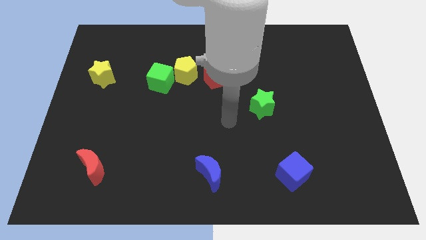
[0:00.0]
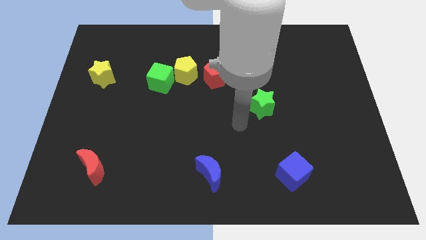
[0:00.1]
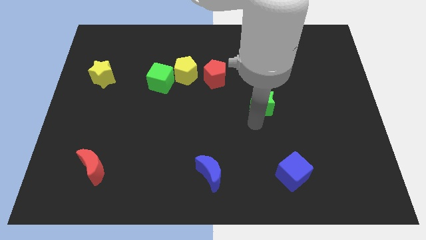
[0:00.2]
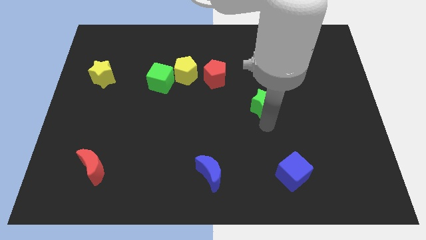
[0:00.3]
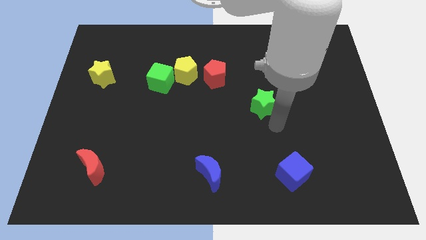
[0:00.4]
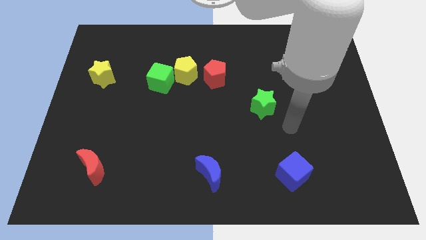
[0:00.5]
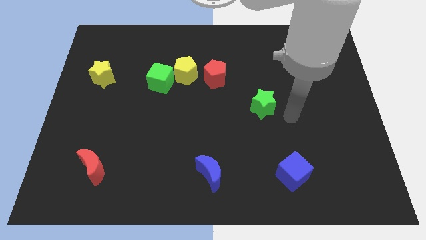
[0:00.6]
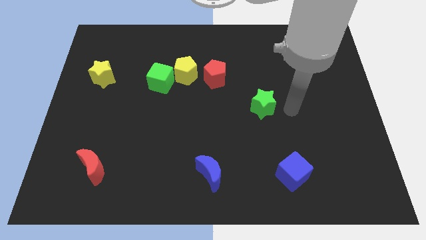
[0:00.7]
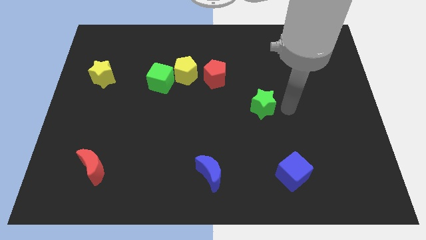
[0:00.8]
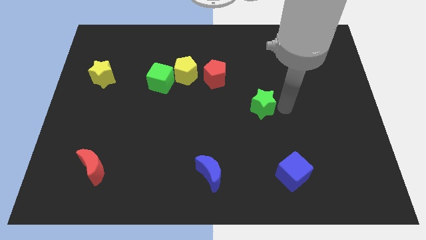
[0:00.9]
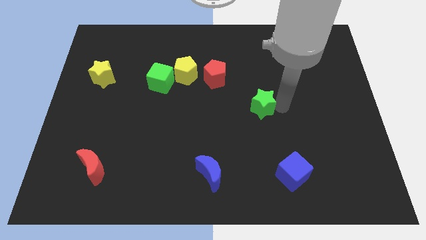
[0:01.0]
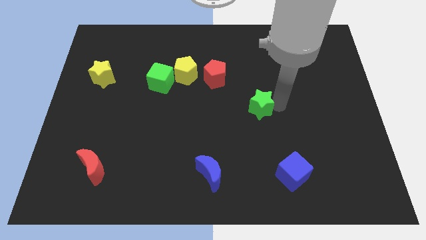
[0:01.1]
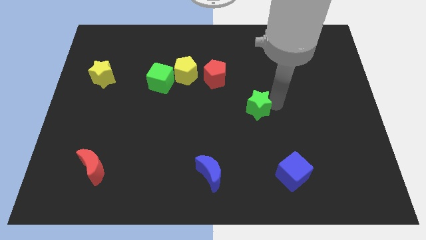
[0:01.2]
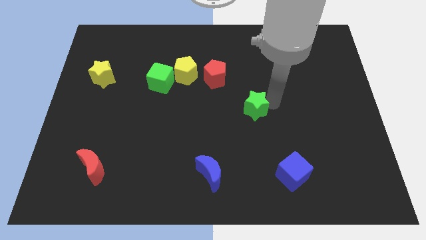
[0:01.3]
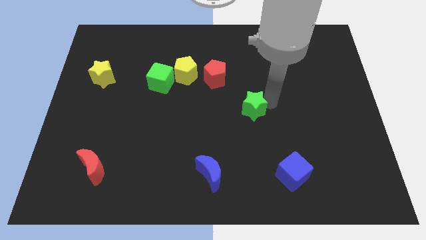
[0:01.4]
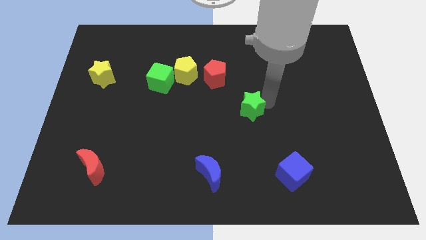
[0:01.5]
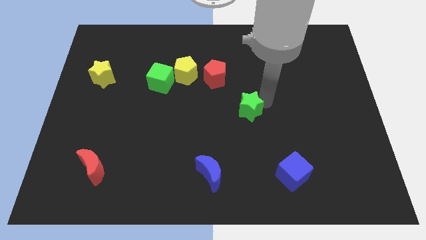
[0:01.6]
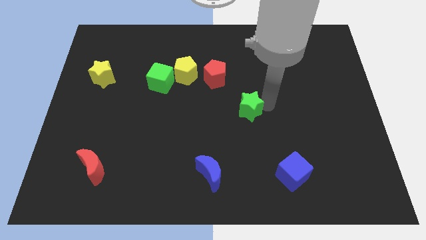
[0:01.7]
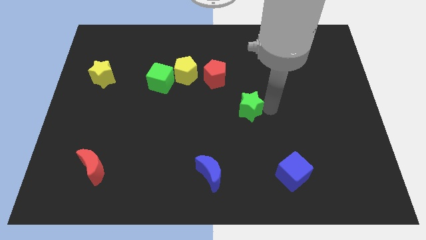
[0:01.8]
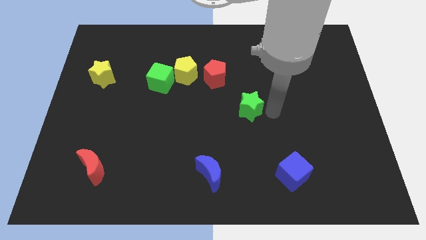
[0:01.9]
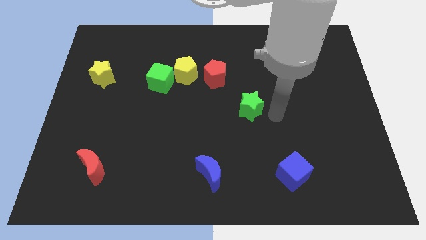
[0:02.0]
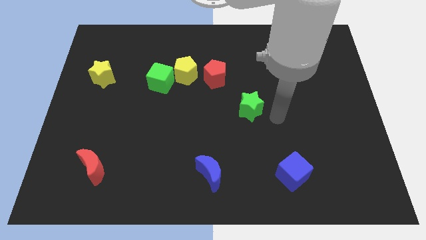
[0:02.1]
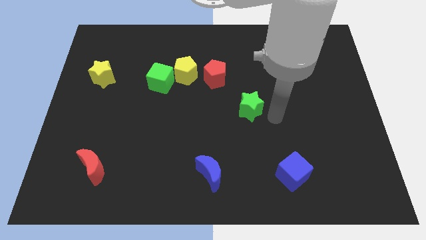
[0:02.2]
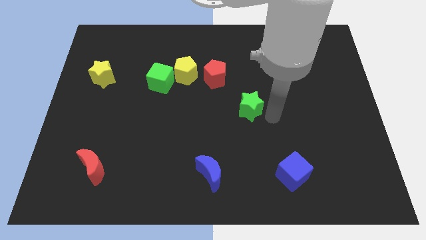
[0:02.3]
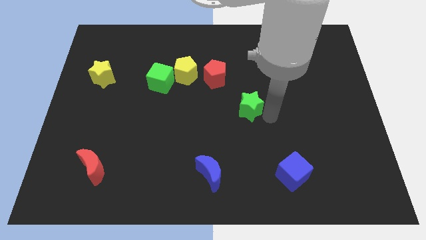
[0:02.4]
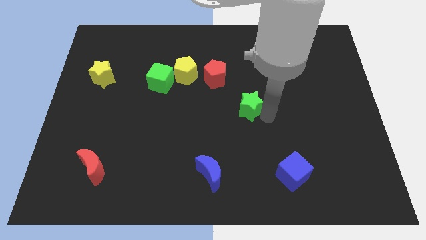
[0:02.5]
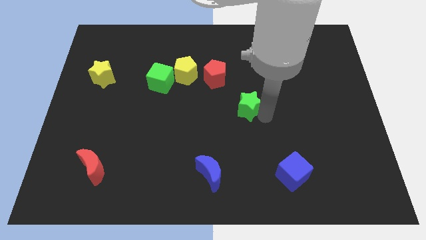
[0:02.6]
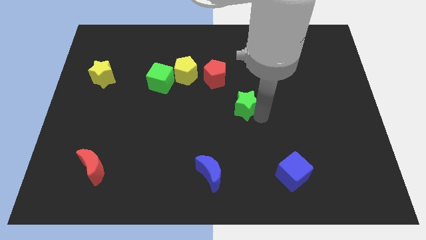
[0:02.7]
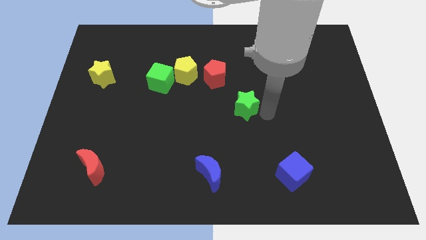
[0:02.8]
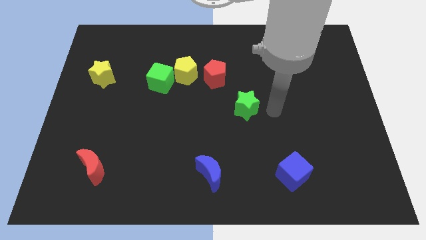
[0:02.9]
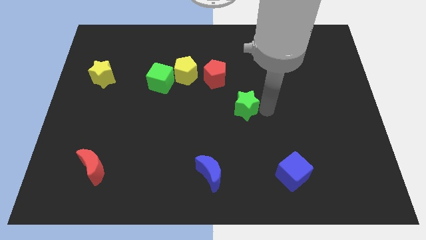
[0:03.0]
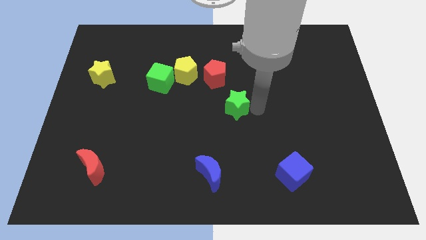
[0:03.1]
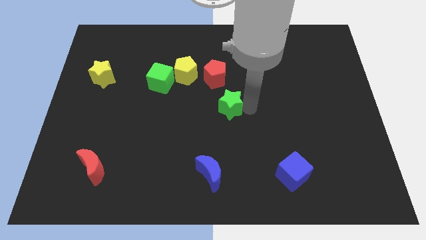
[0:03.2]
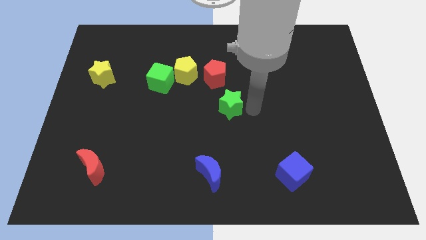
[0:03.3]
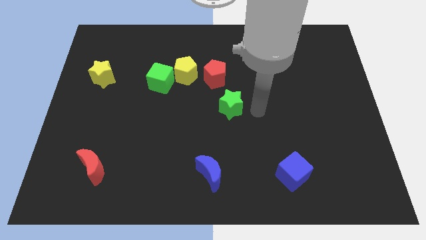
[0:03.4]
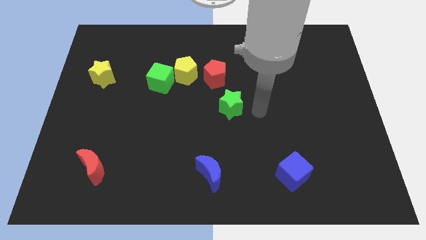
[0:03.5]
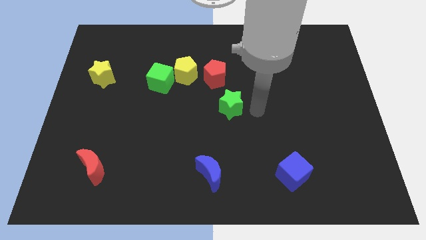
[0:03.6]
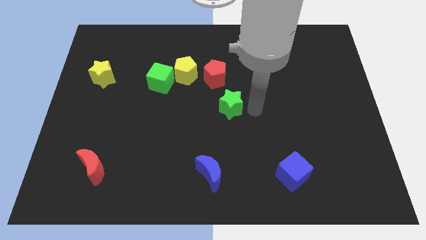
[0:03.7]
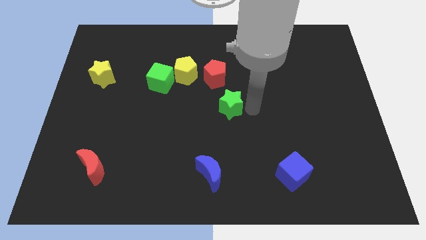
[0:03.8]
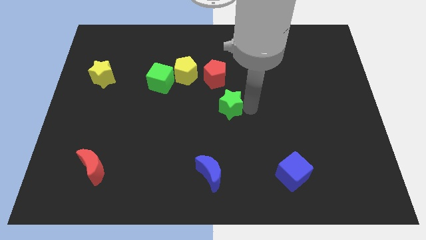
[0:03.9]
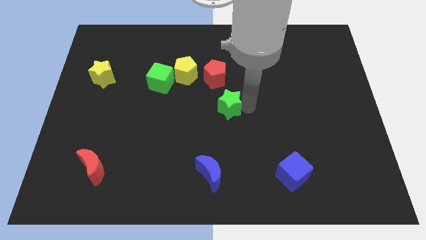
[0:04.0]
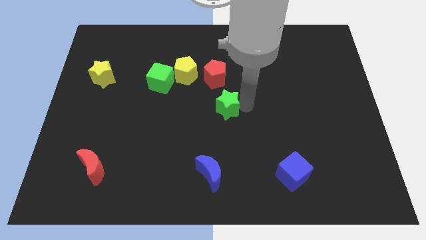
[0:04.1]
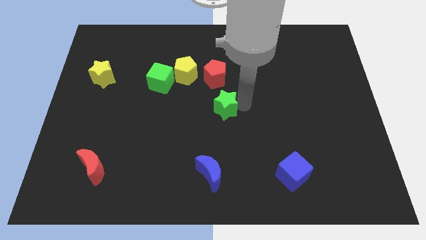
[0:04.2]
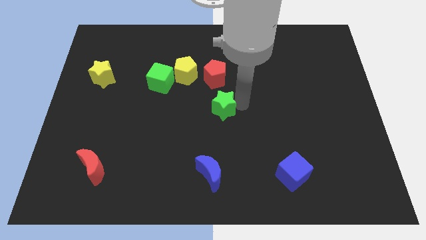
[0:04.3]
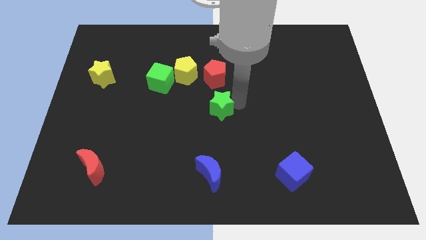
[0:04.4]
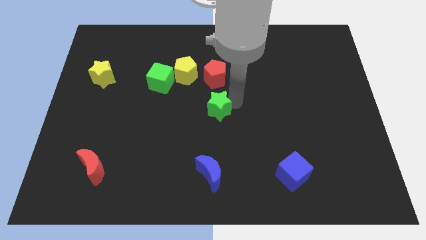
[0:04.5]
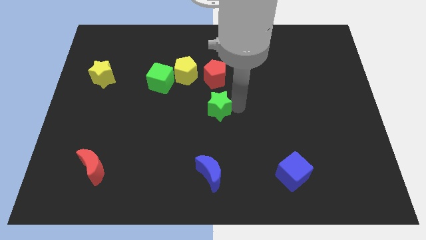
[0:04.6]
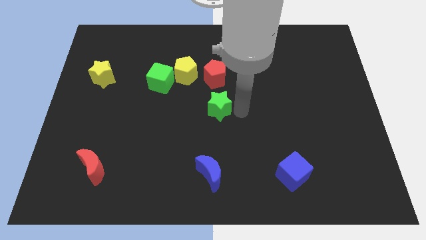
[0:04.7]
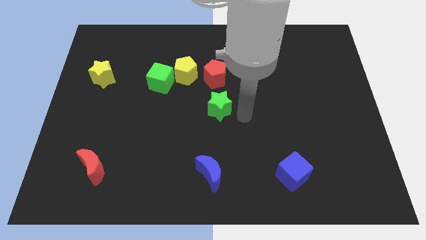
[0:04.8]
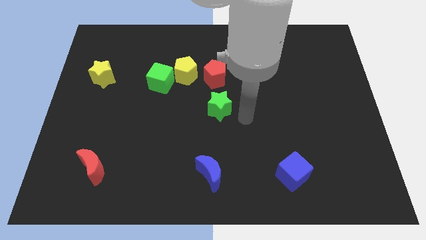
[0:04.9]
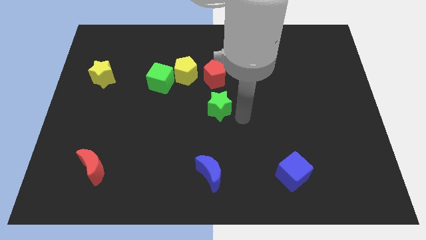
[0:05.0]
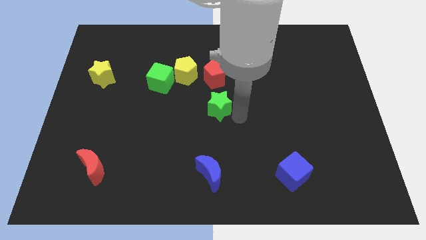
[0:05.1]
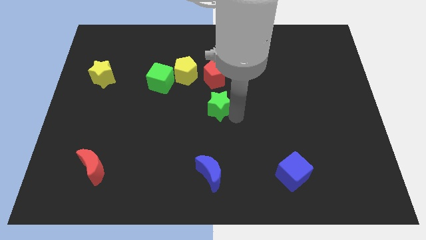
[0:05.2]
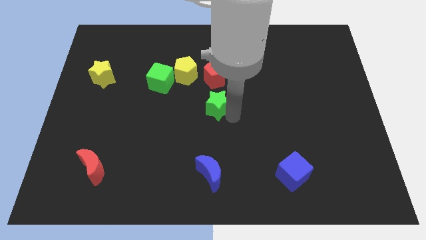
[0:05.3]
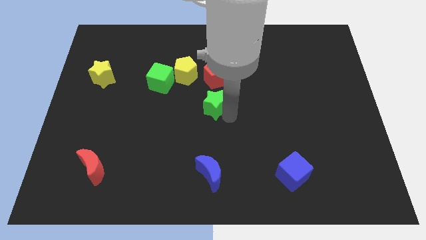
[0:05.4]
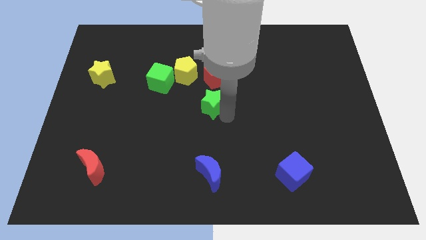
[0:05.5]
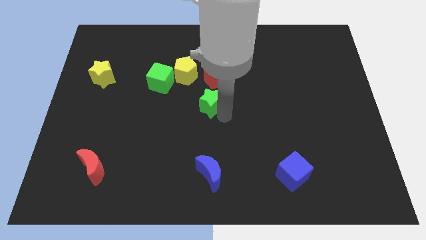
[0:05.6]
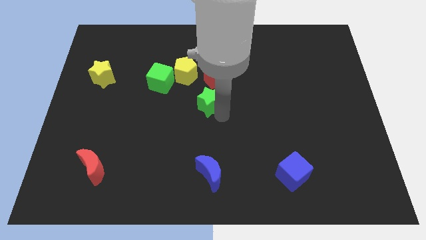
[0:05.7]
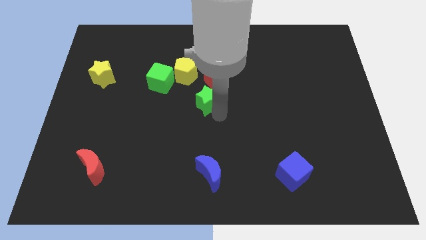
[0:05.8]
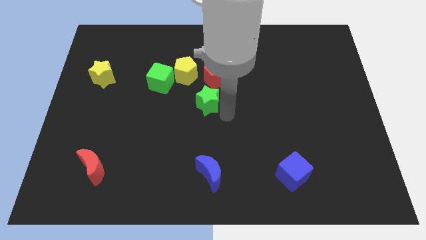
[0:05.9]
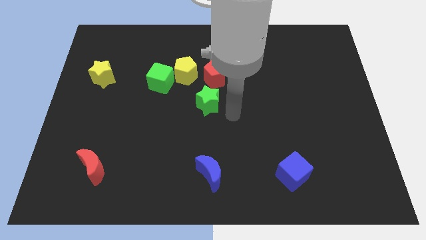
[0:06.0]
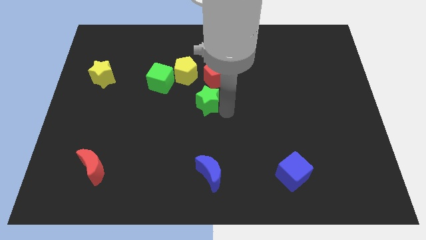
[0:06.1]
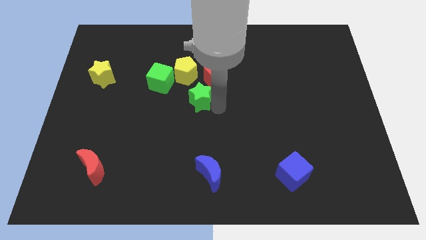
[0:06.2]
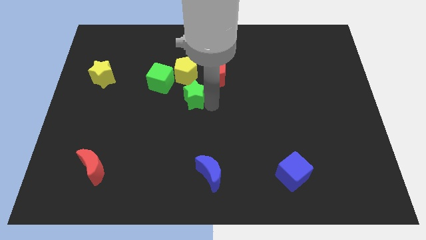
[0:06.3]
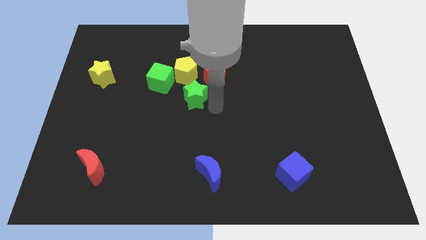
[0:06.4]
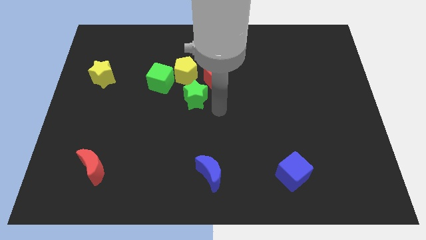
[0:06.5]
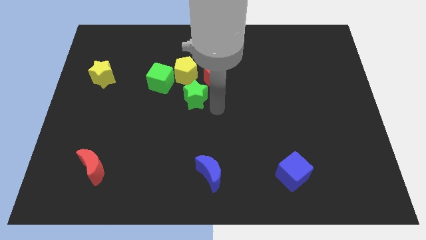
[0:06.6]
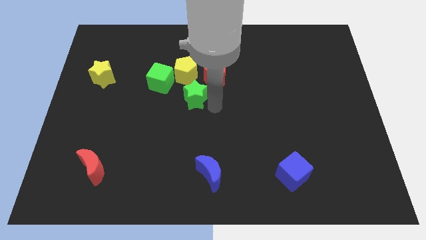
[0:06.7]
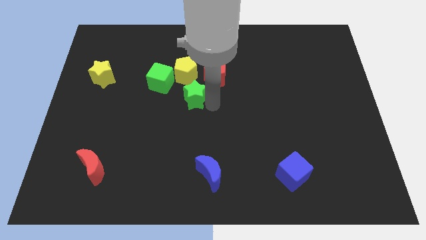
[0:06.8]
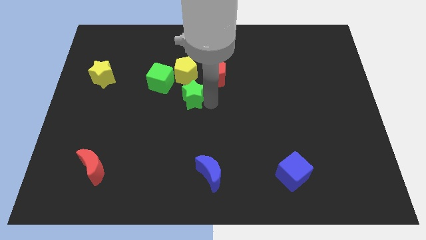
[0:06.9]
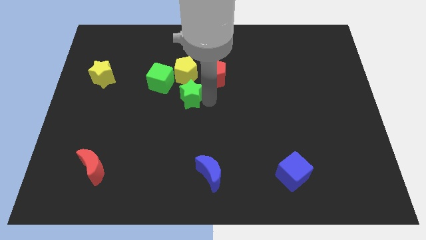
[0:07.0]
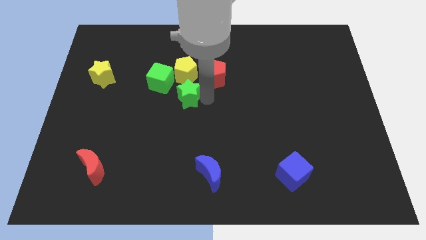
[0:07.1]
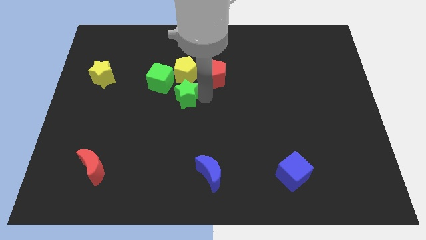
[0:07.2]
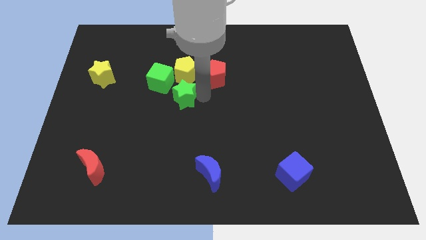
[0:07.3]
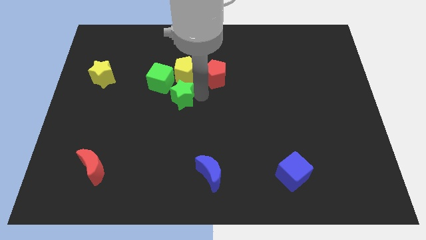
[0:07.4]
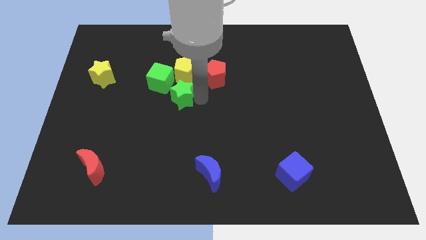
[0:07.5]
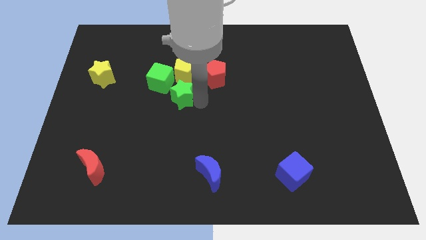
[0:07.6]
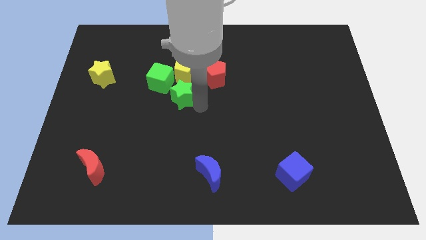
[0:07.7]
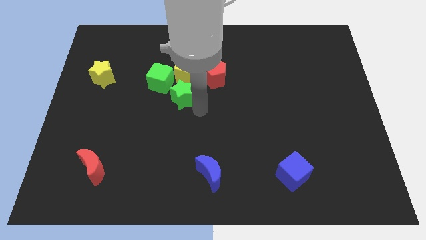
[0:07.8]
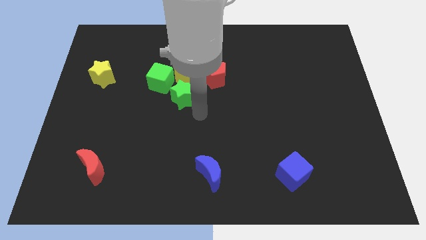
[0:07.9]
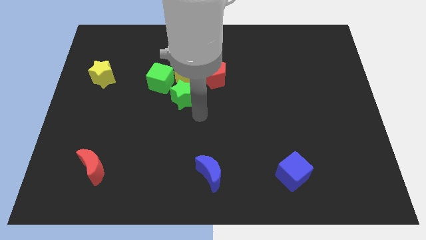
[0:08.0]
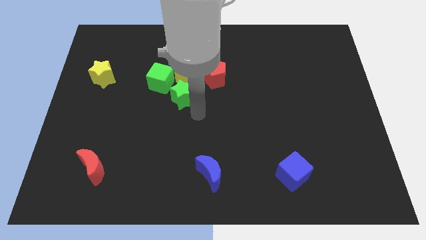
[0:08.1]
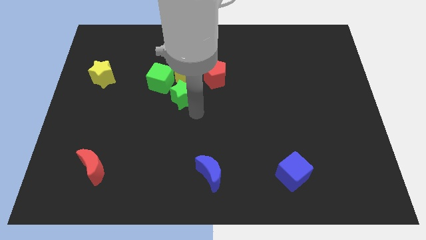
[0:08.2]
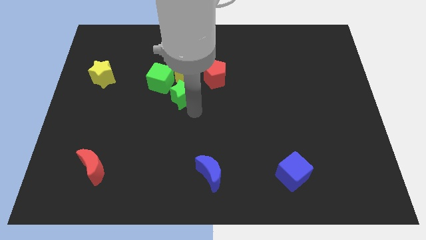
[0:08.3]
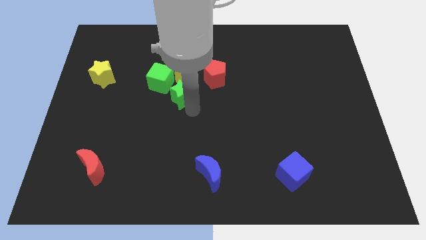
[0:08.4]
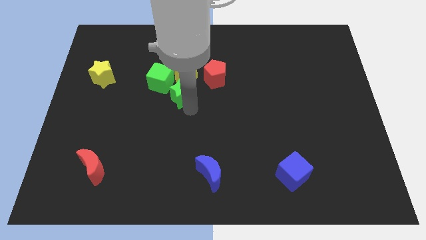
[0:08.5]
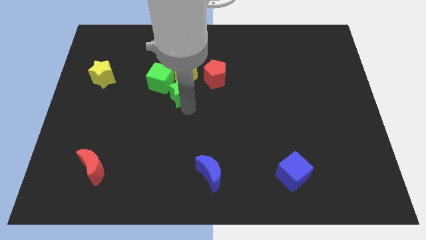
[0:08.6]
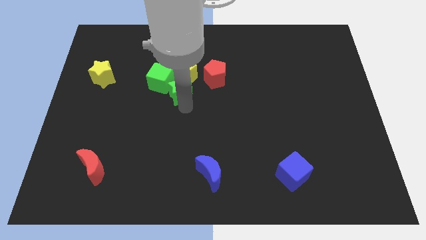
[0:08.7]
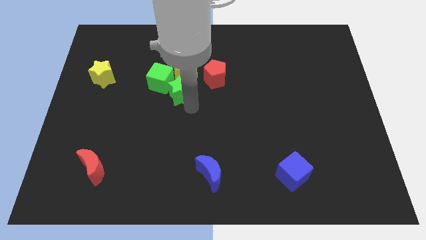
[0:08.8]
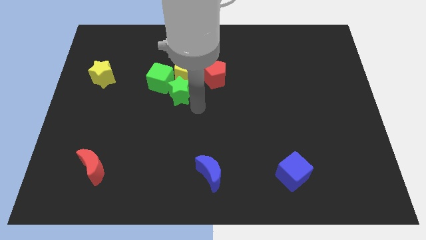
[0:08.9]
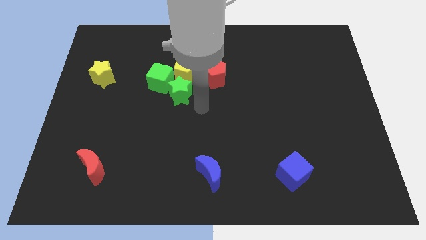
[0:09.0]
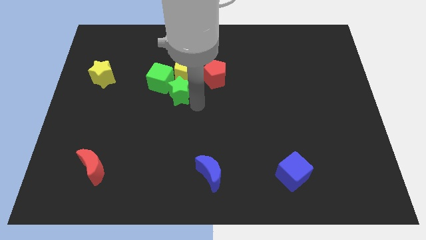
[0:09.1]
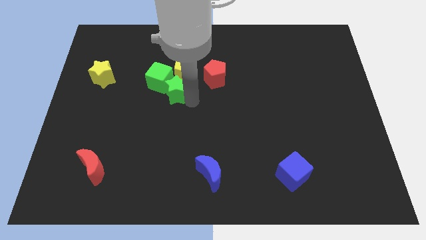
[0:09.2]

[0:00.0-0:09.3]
move the green star to the green cube
